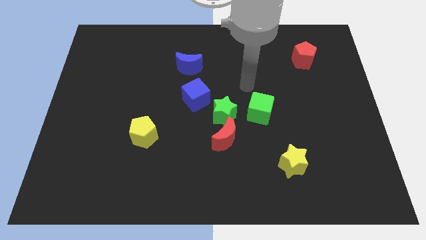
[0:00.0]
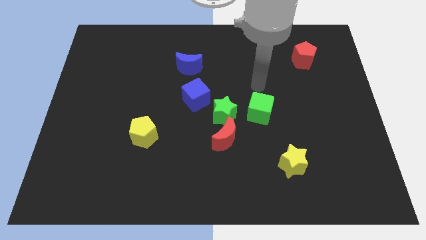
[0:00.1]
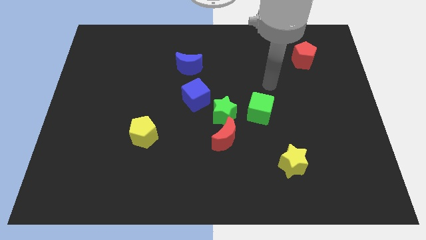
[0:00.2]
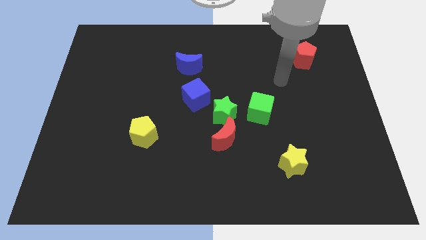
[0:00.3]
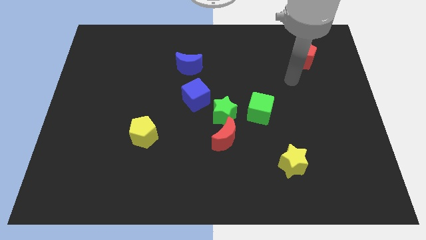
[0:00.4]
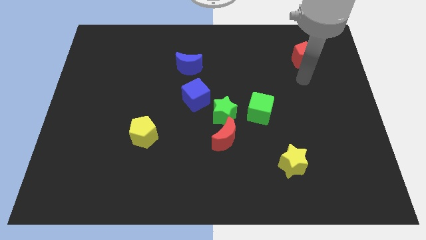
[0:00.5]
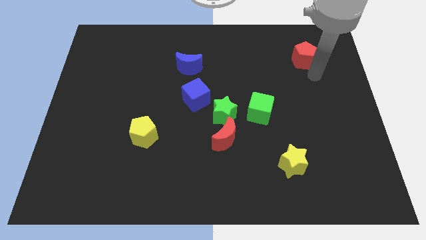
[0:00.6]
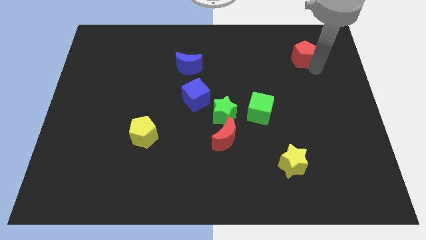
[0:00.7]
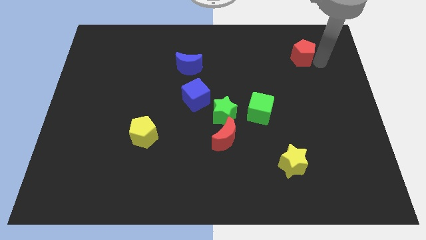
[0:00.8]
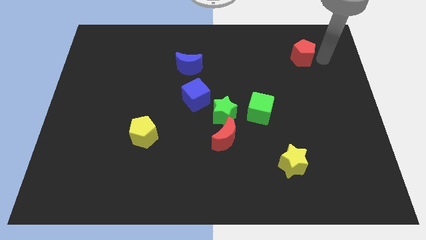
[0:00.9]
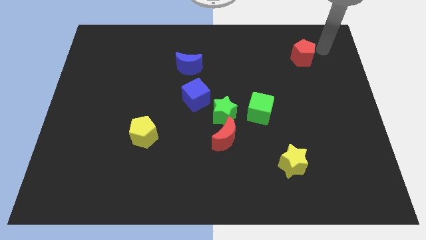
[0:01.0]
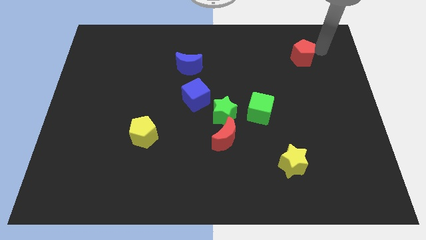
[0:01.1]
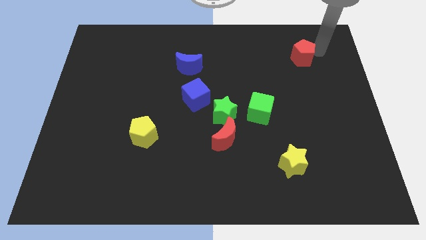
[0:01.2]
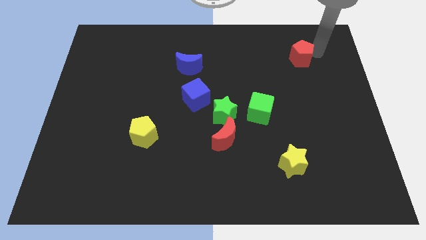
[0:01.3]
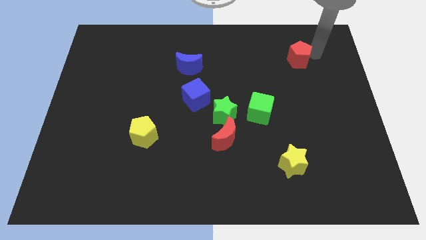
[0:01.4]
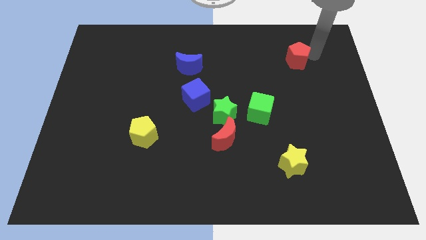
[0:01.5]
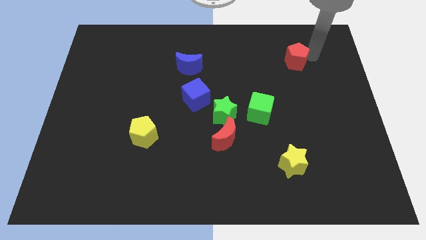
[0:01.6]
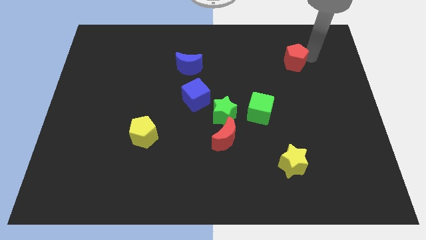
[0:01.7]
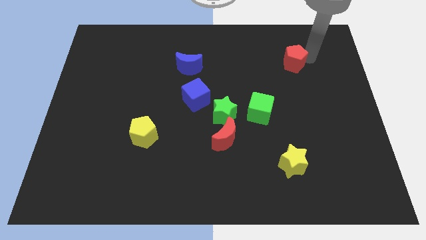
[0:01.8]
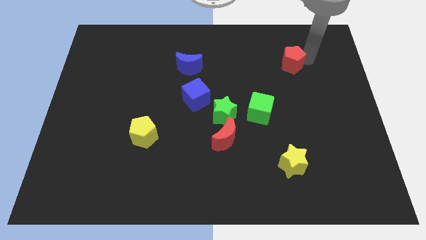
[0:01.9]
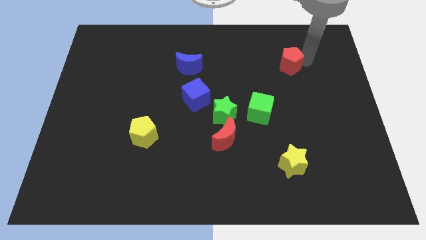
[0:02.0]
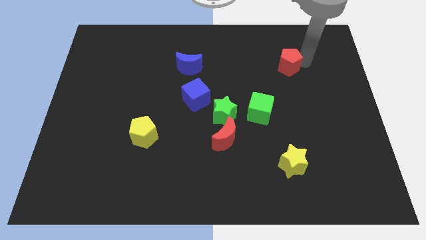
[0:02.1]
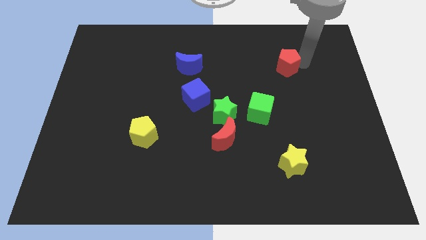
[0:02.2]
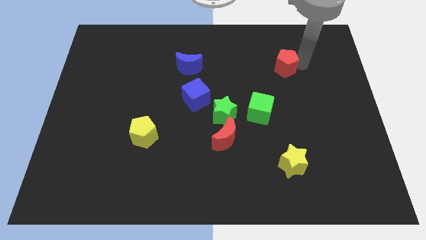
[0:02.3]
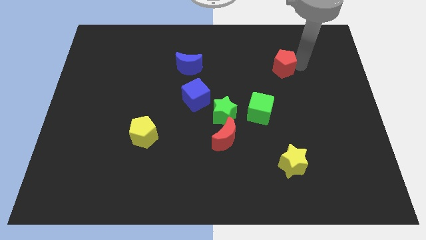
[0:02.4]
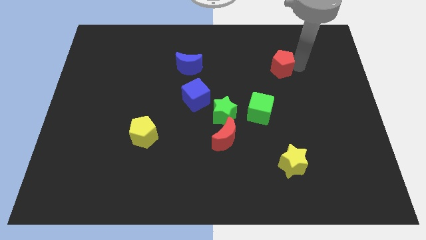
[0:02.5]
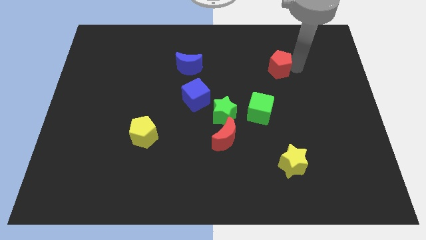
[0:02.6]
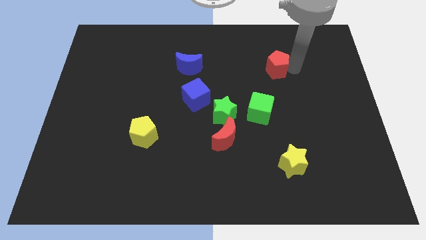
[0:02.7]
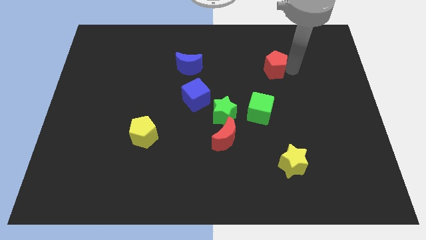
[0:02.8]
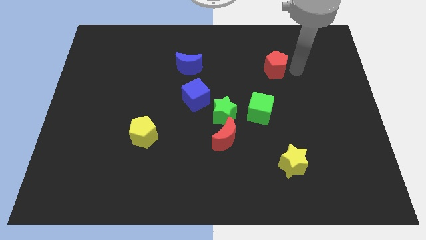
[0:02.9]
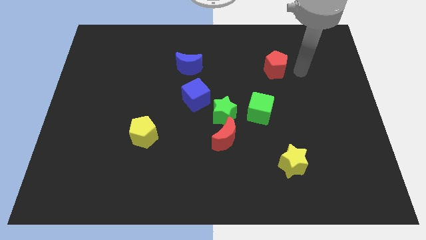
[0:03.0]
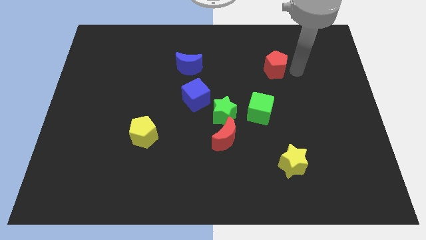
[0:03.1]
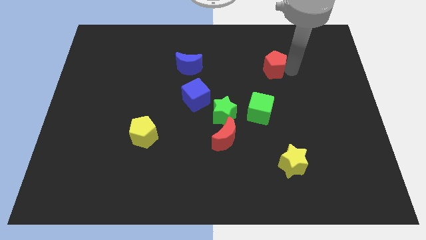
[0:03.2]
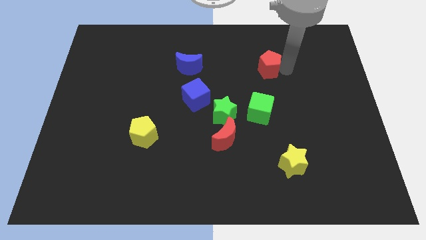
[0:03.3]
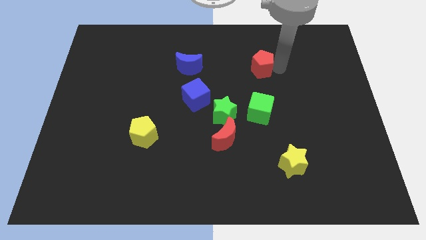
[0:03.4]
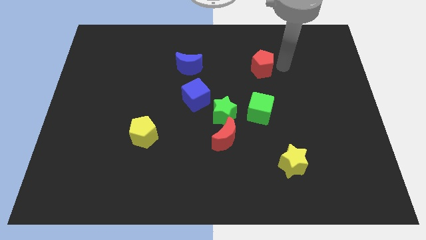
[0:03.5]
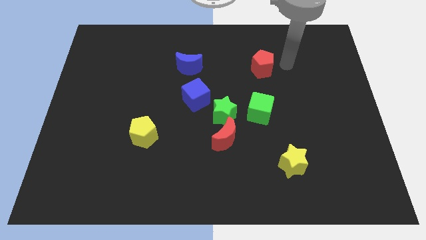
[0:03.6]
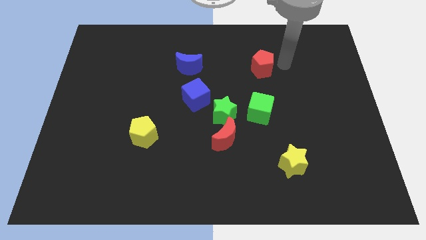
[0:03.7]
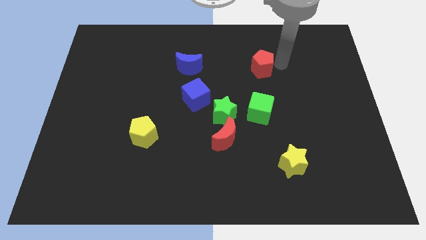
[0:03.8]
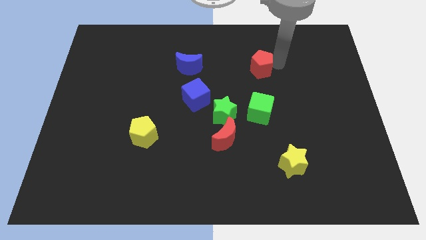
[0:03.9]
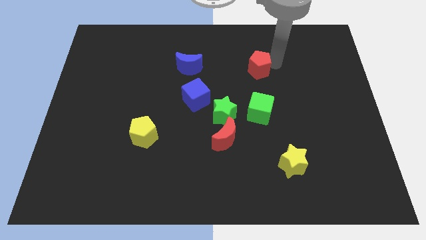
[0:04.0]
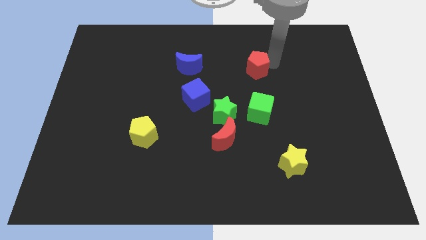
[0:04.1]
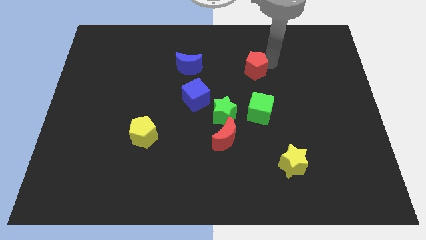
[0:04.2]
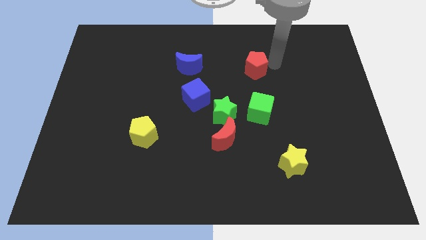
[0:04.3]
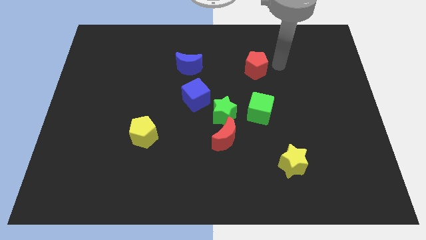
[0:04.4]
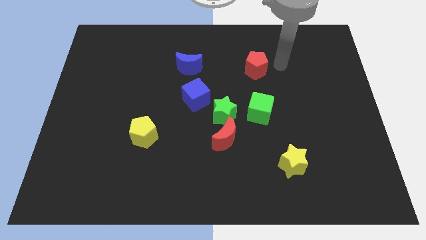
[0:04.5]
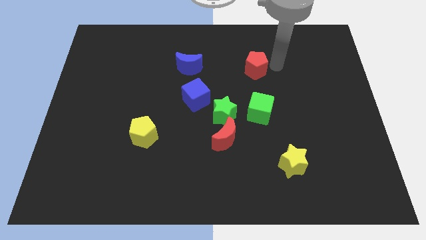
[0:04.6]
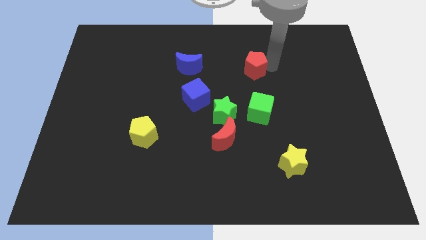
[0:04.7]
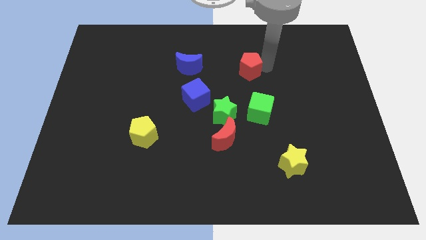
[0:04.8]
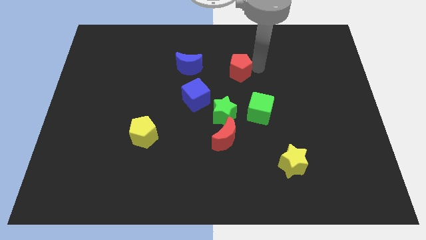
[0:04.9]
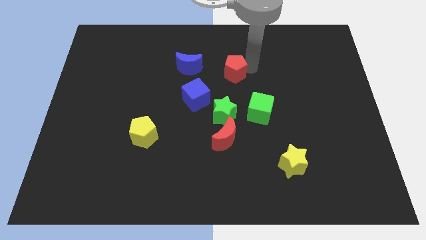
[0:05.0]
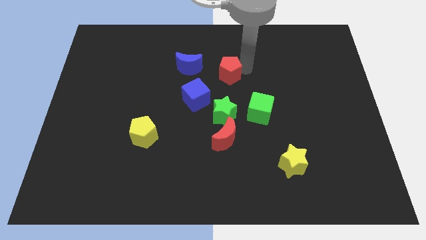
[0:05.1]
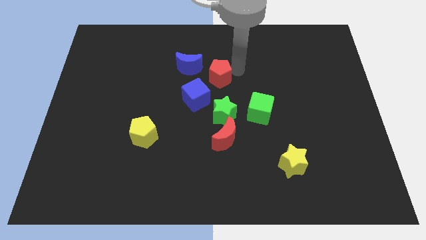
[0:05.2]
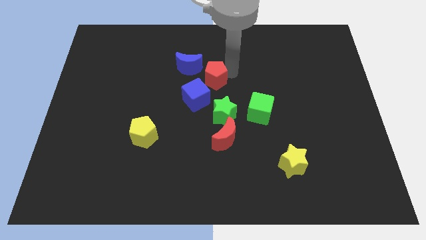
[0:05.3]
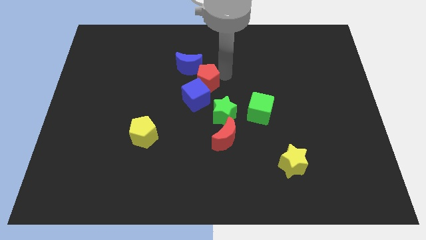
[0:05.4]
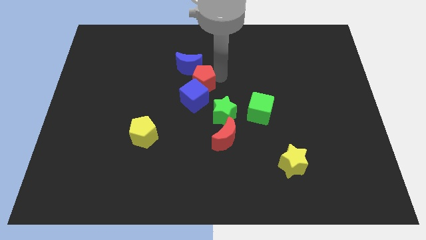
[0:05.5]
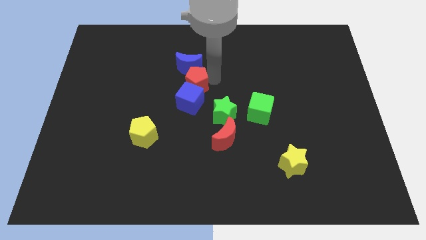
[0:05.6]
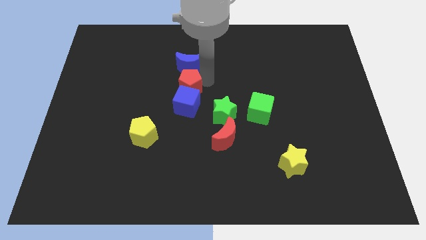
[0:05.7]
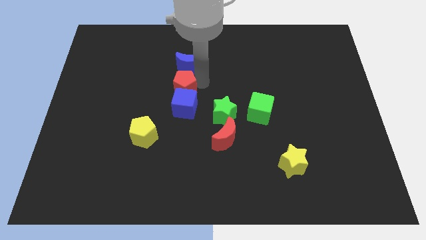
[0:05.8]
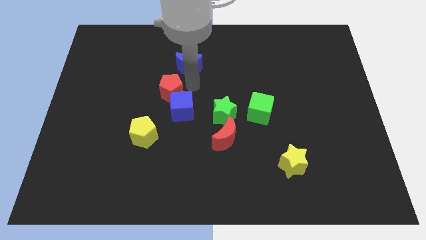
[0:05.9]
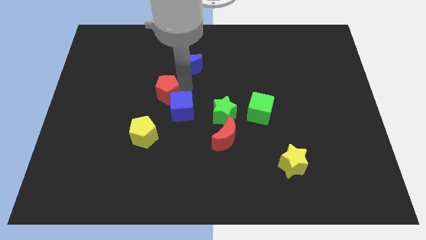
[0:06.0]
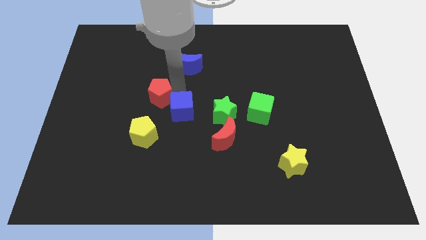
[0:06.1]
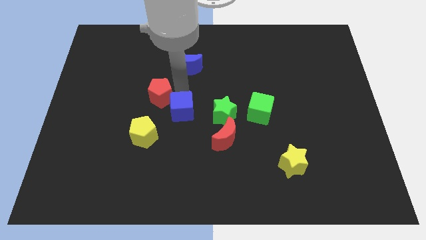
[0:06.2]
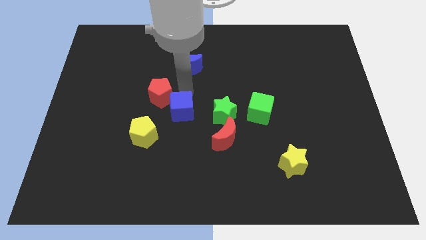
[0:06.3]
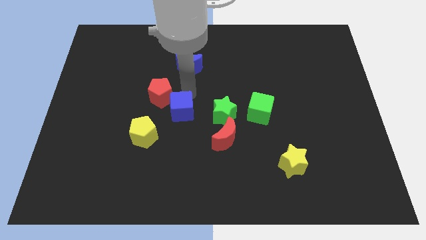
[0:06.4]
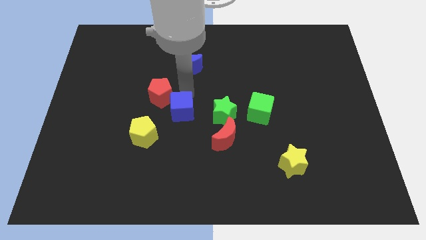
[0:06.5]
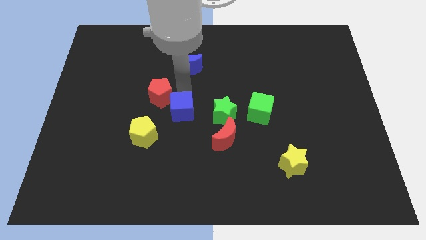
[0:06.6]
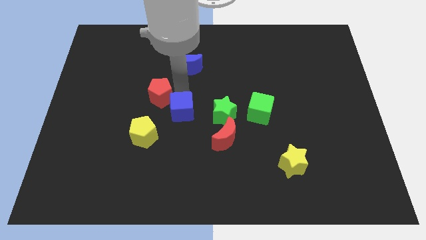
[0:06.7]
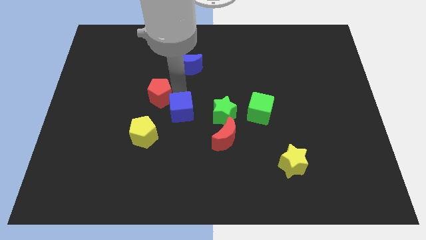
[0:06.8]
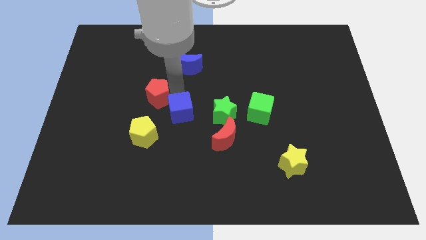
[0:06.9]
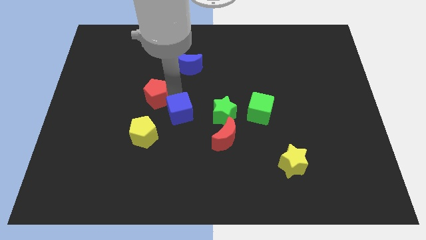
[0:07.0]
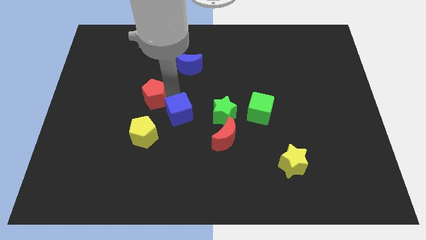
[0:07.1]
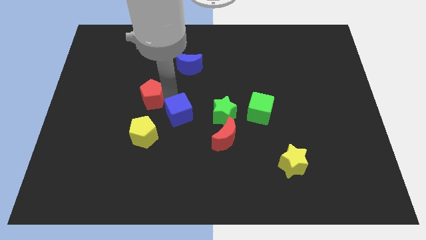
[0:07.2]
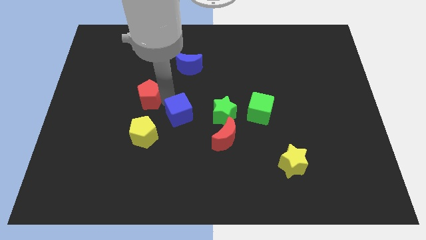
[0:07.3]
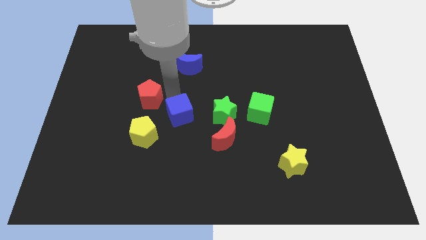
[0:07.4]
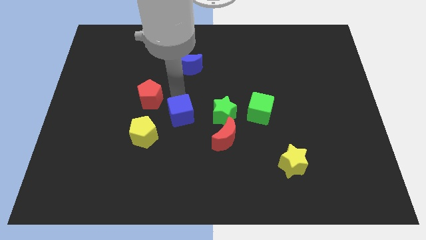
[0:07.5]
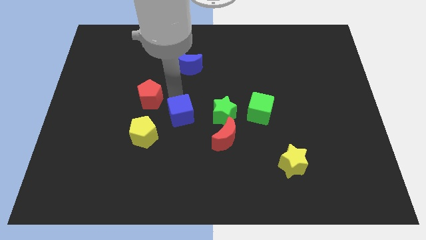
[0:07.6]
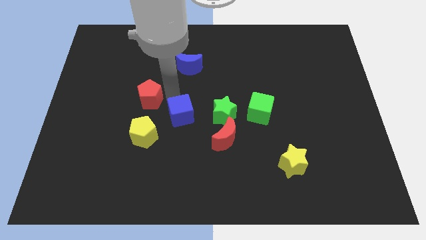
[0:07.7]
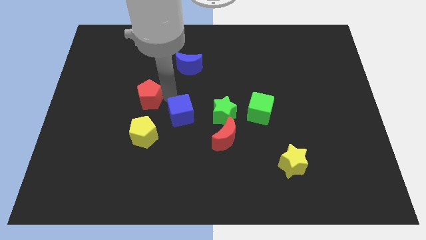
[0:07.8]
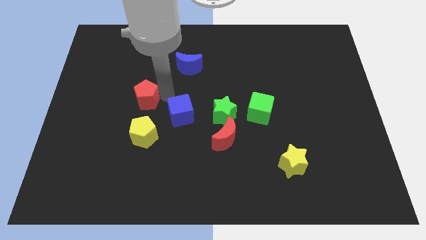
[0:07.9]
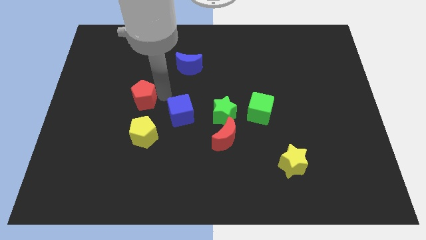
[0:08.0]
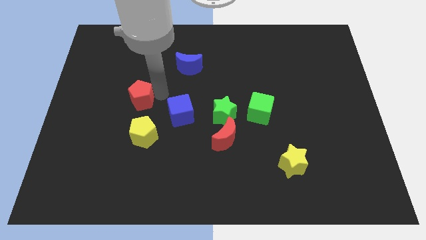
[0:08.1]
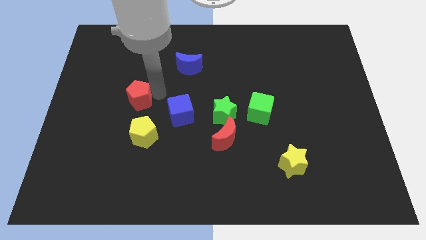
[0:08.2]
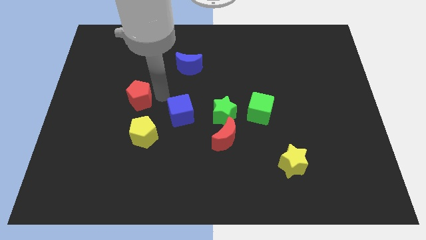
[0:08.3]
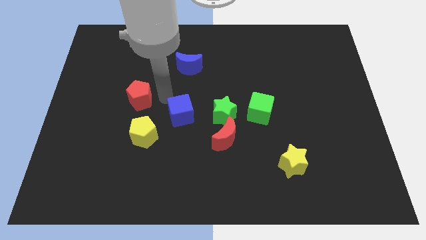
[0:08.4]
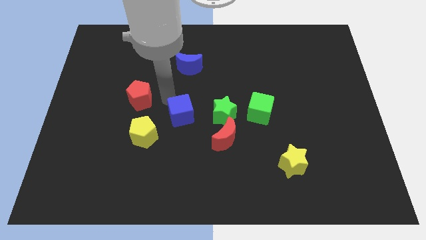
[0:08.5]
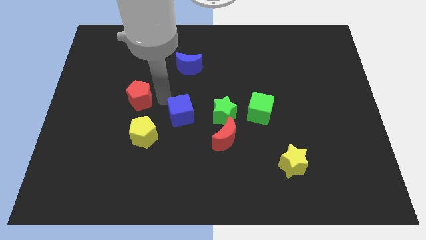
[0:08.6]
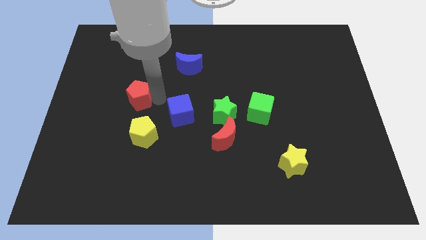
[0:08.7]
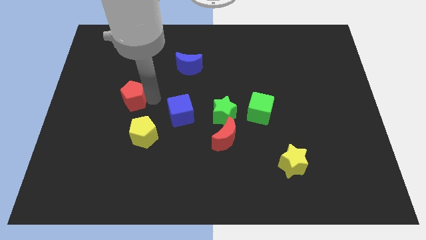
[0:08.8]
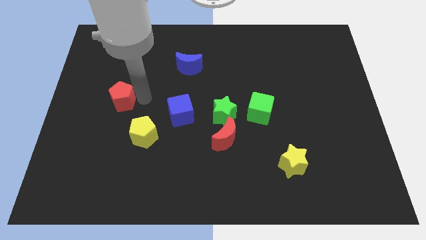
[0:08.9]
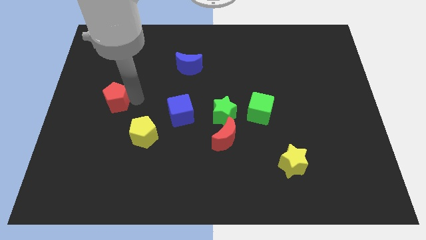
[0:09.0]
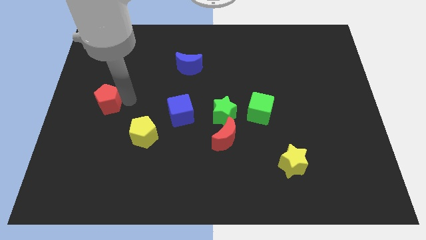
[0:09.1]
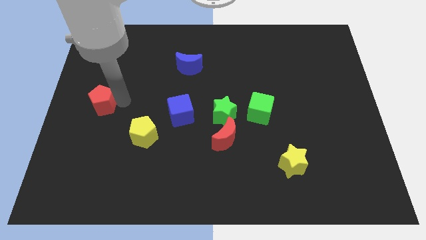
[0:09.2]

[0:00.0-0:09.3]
push the red pentagon to the left side
